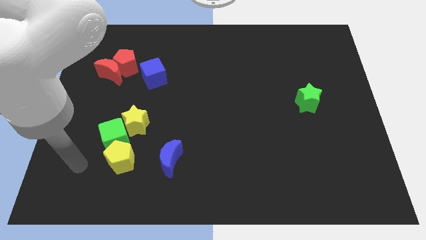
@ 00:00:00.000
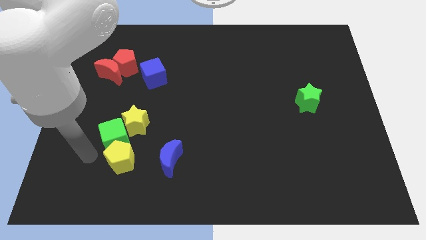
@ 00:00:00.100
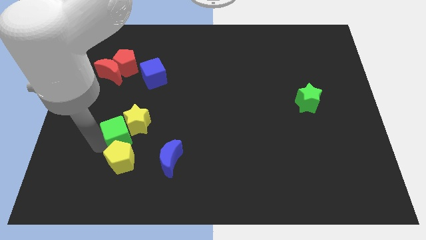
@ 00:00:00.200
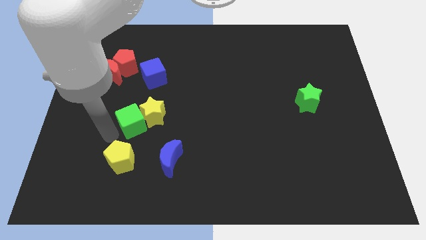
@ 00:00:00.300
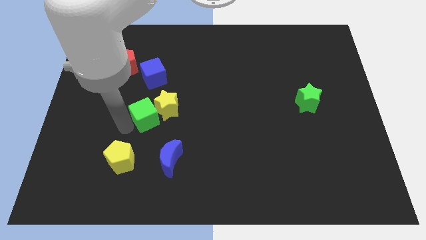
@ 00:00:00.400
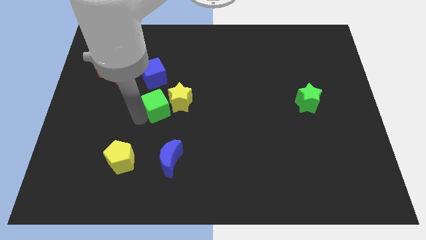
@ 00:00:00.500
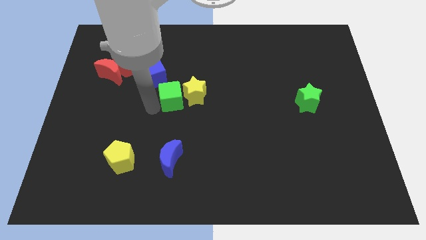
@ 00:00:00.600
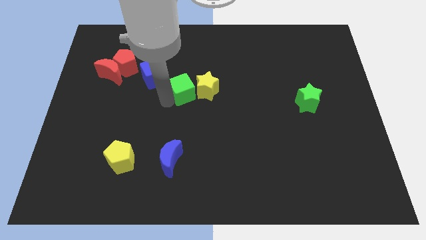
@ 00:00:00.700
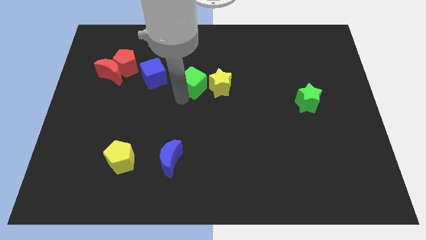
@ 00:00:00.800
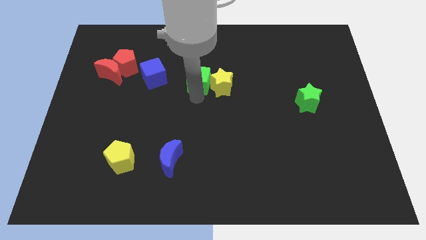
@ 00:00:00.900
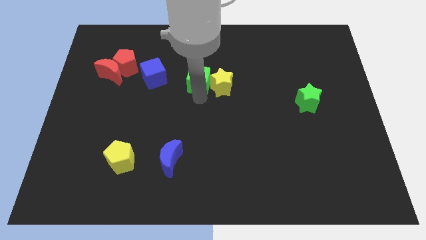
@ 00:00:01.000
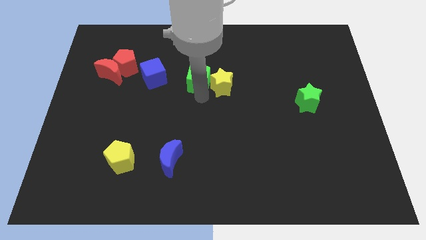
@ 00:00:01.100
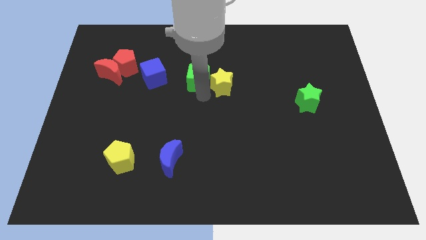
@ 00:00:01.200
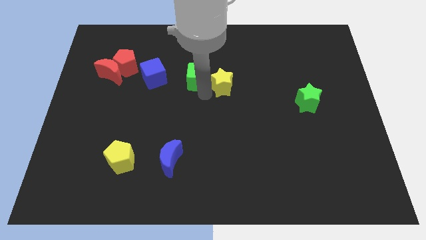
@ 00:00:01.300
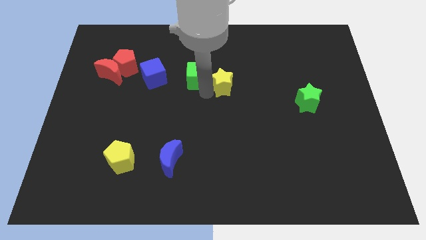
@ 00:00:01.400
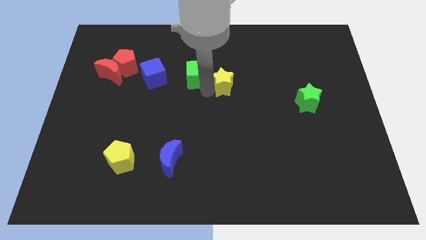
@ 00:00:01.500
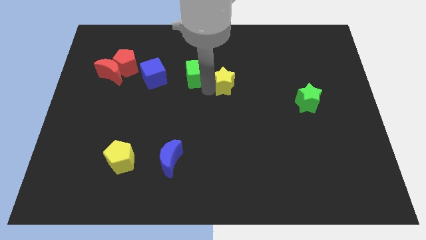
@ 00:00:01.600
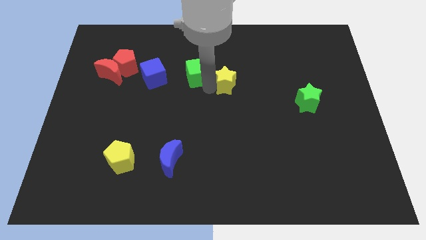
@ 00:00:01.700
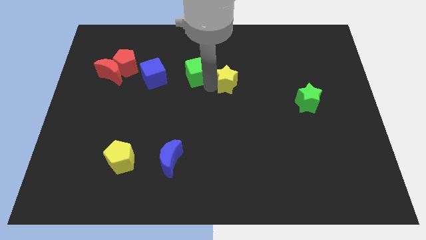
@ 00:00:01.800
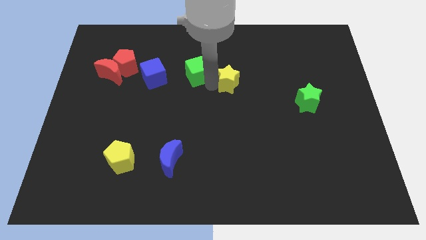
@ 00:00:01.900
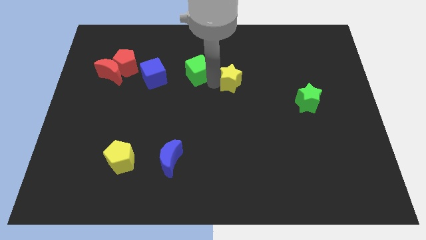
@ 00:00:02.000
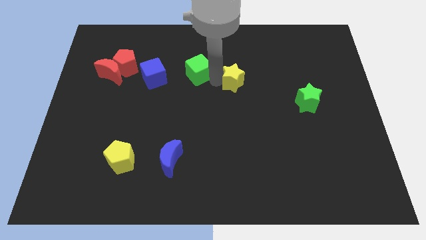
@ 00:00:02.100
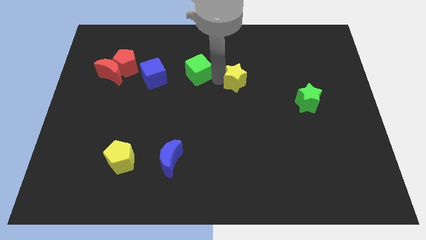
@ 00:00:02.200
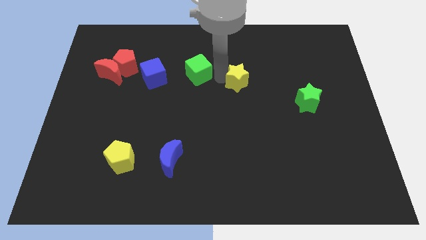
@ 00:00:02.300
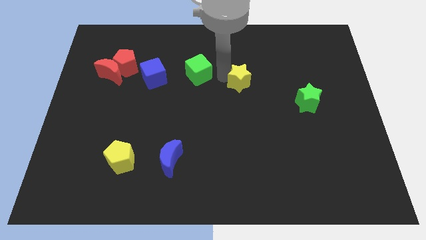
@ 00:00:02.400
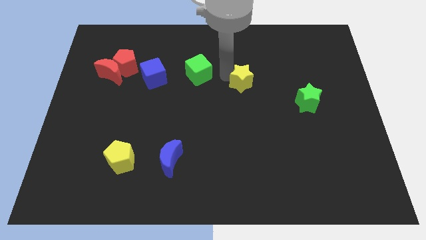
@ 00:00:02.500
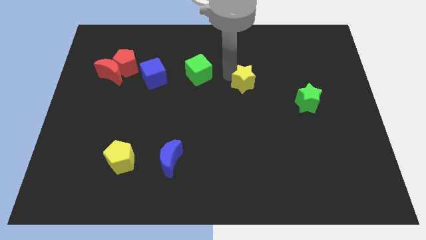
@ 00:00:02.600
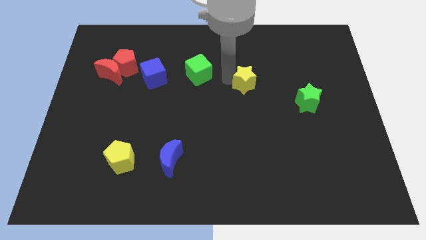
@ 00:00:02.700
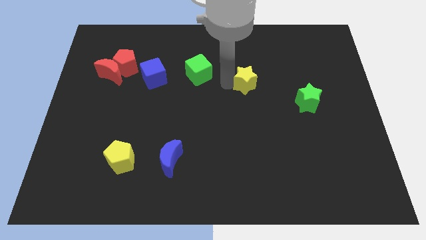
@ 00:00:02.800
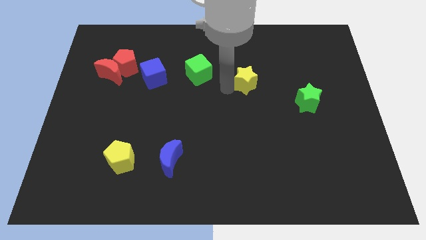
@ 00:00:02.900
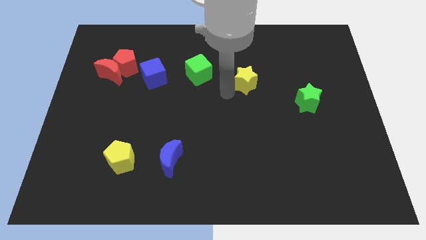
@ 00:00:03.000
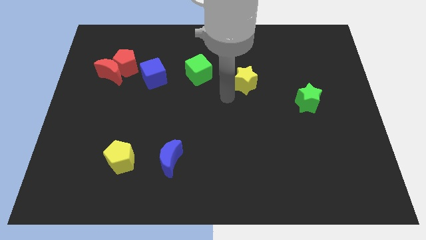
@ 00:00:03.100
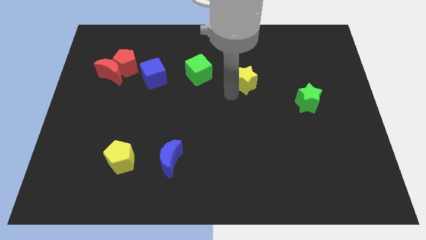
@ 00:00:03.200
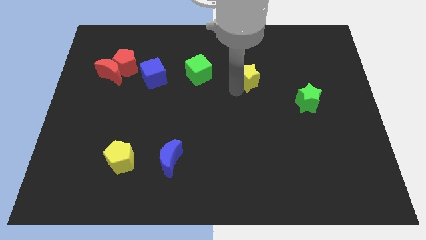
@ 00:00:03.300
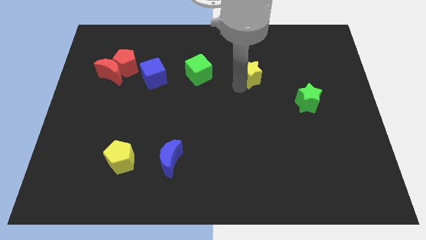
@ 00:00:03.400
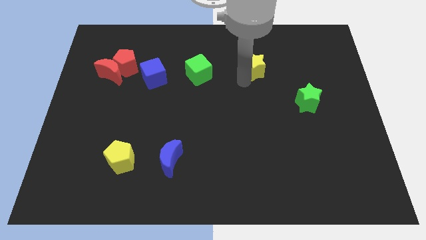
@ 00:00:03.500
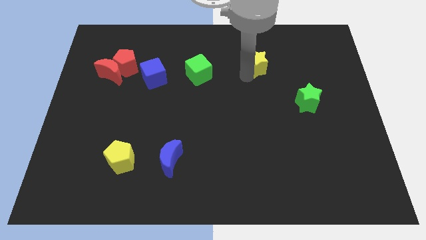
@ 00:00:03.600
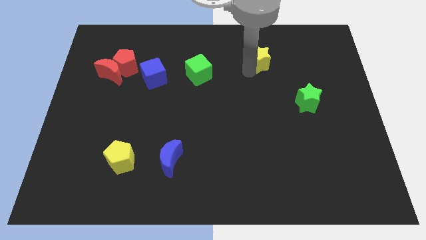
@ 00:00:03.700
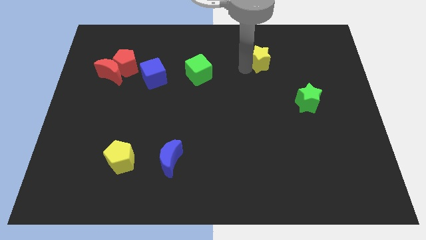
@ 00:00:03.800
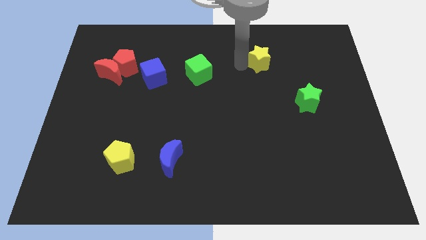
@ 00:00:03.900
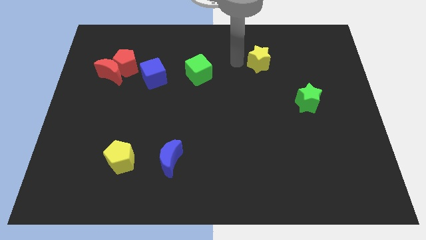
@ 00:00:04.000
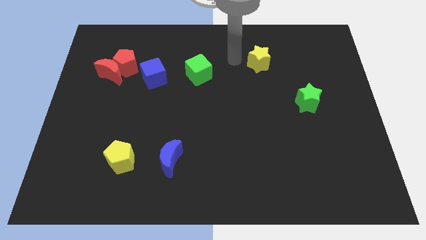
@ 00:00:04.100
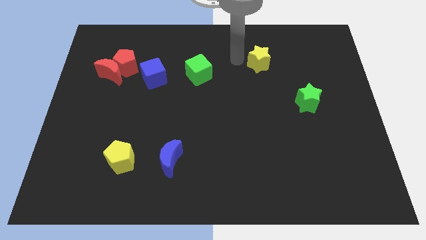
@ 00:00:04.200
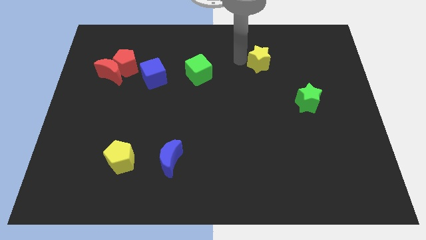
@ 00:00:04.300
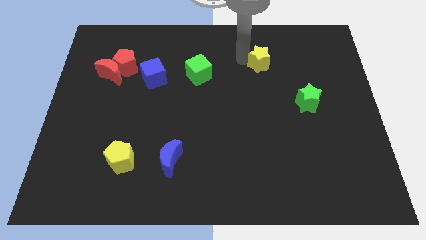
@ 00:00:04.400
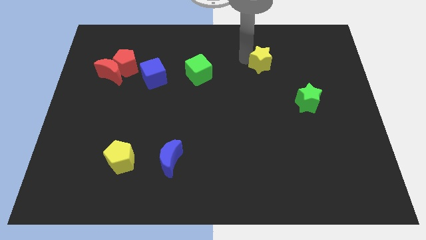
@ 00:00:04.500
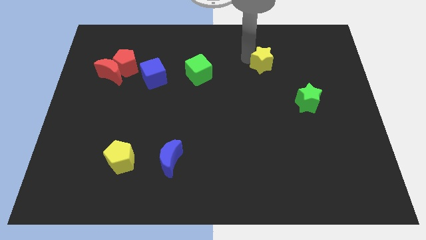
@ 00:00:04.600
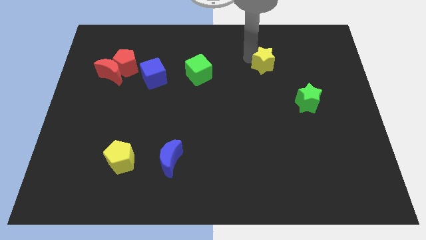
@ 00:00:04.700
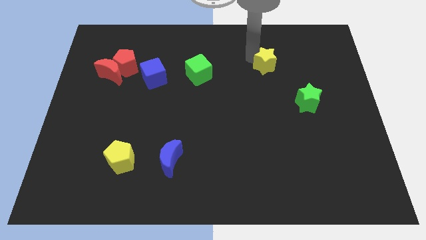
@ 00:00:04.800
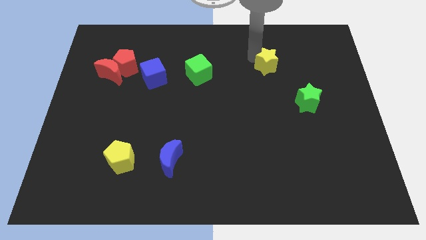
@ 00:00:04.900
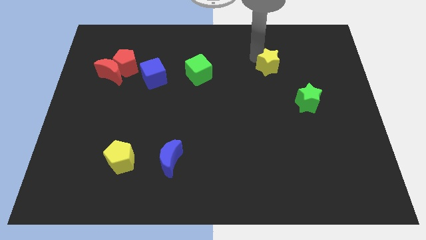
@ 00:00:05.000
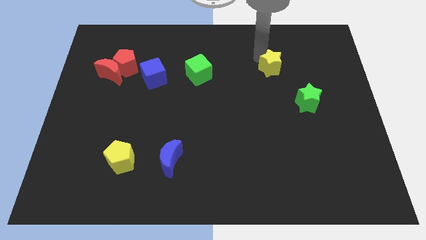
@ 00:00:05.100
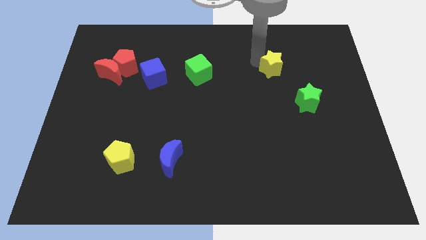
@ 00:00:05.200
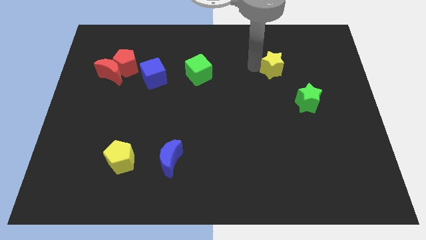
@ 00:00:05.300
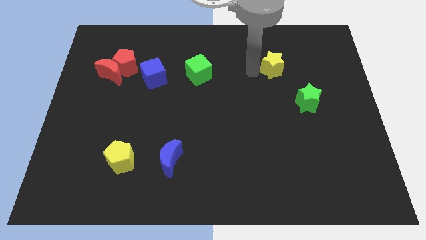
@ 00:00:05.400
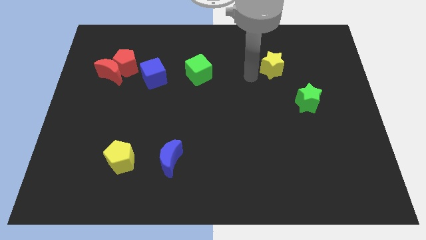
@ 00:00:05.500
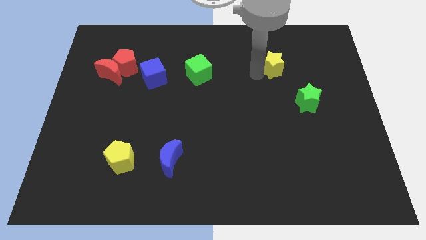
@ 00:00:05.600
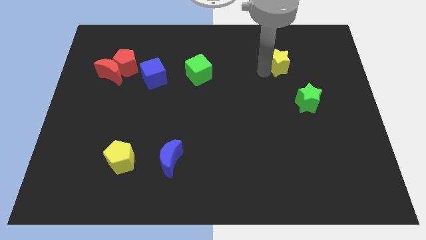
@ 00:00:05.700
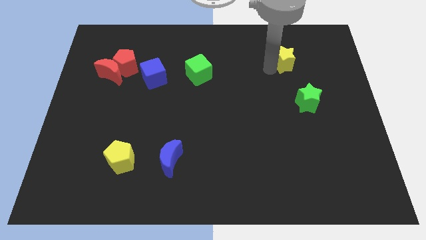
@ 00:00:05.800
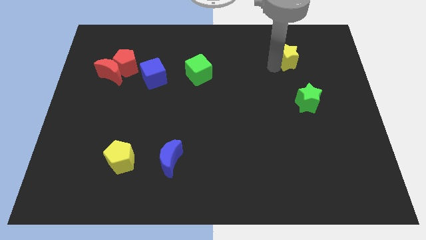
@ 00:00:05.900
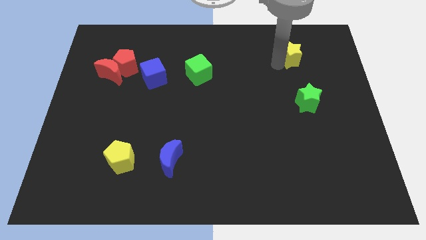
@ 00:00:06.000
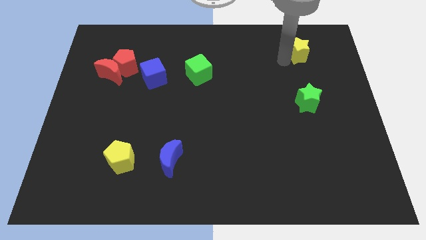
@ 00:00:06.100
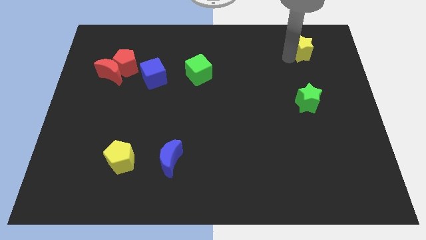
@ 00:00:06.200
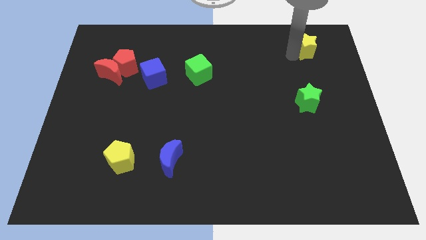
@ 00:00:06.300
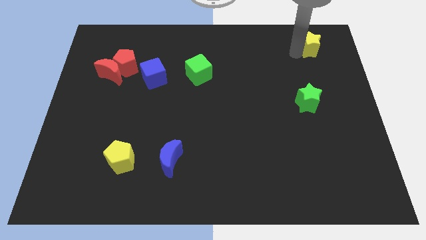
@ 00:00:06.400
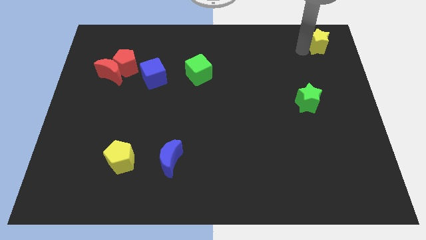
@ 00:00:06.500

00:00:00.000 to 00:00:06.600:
move the yellow star to the top right

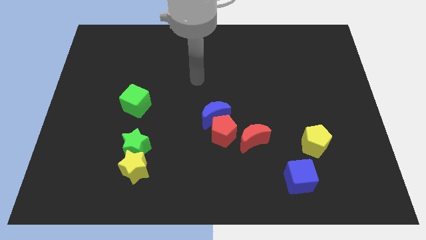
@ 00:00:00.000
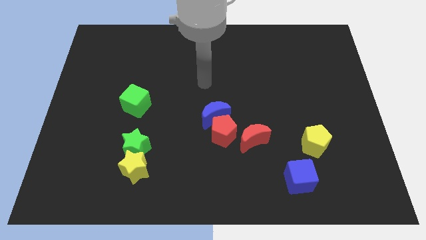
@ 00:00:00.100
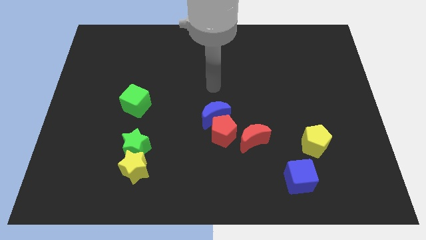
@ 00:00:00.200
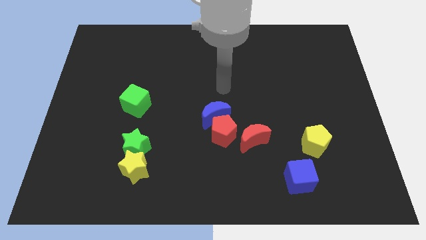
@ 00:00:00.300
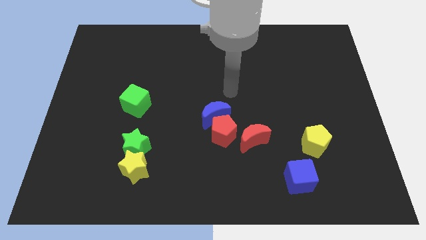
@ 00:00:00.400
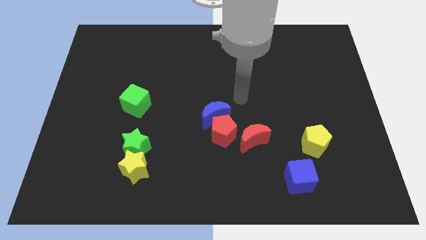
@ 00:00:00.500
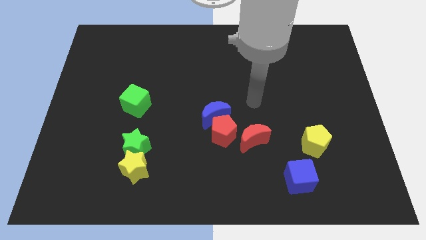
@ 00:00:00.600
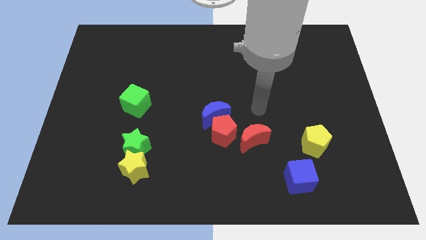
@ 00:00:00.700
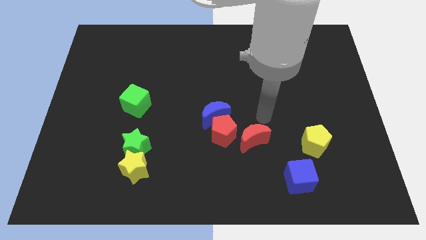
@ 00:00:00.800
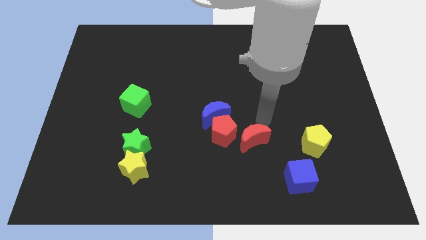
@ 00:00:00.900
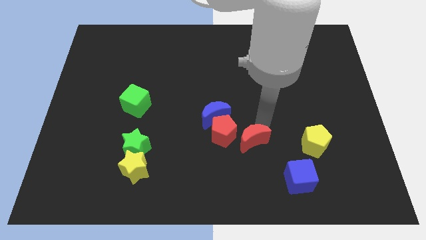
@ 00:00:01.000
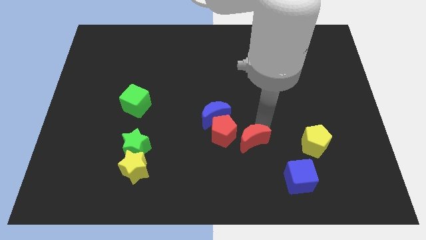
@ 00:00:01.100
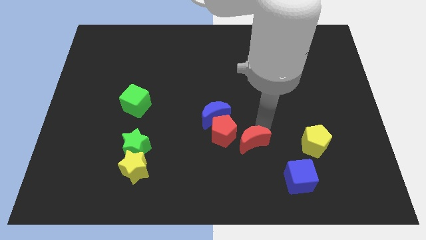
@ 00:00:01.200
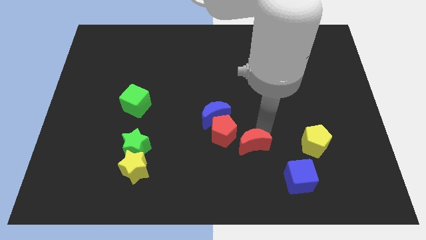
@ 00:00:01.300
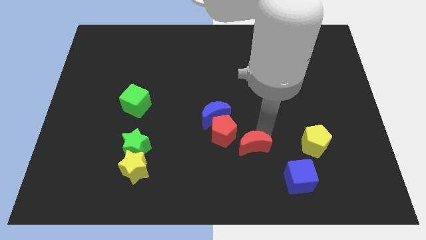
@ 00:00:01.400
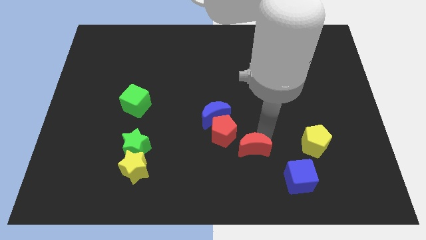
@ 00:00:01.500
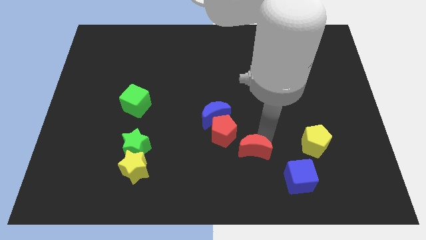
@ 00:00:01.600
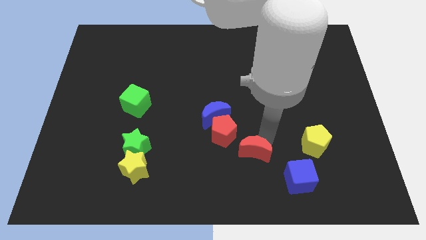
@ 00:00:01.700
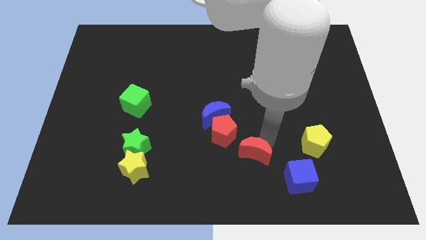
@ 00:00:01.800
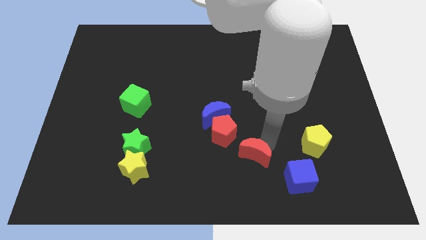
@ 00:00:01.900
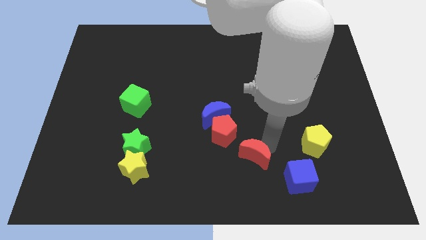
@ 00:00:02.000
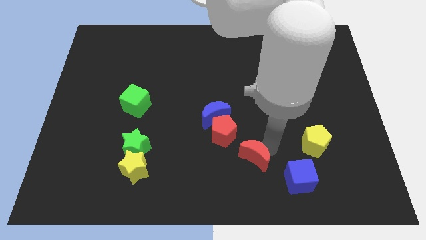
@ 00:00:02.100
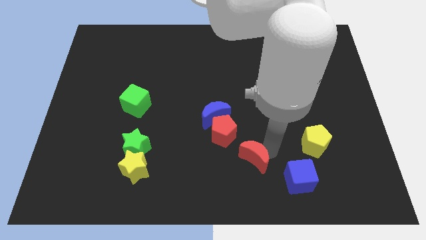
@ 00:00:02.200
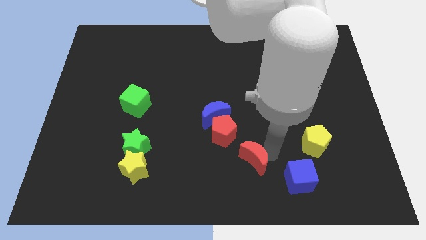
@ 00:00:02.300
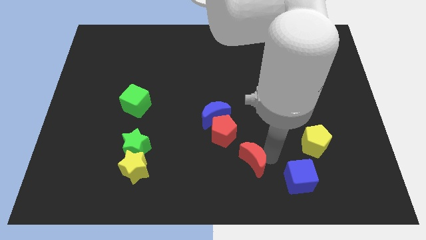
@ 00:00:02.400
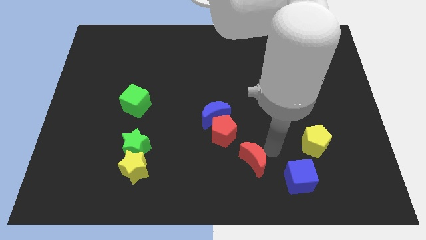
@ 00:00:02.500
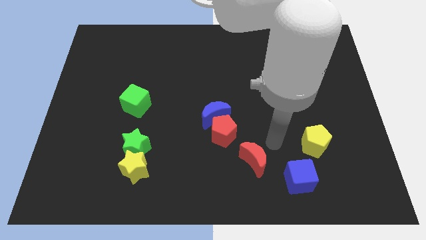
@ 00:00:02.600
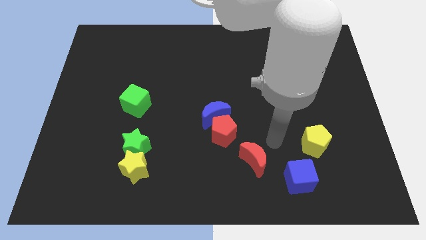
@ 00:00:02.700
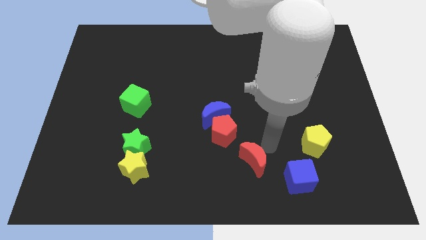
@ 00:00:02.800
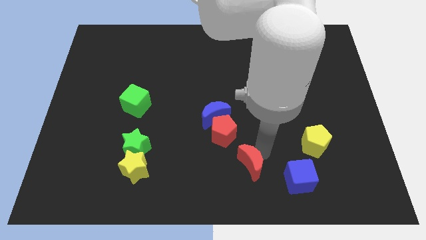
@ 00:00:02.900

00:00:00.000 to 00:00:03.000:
move the red moon to the bottom
